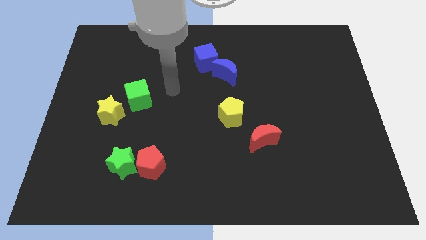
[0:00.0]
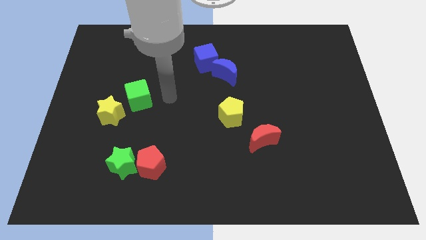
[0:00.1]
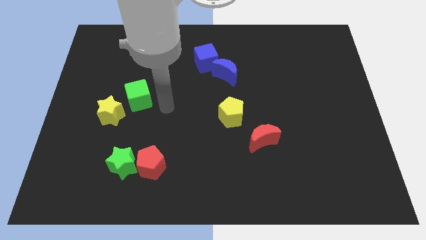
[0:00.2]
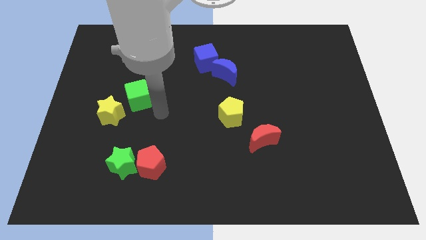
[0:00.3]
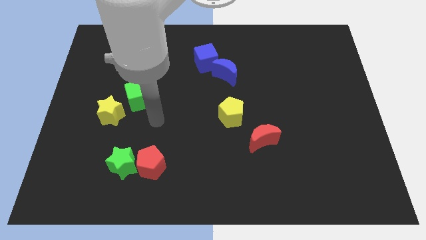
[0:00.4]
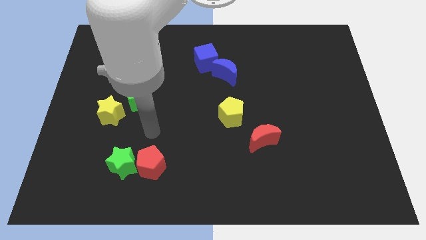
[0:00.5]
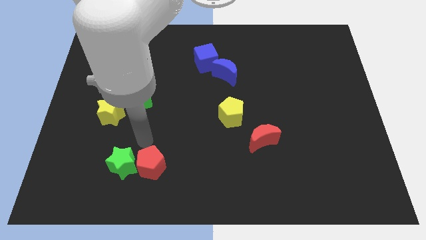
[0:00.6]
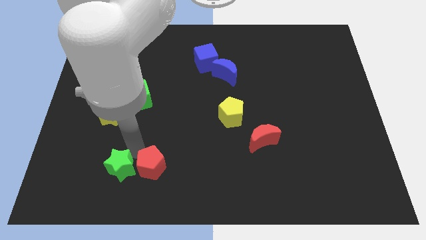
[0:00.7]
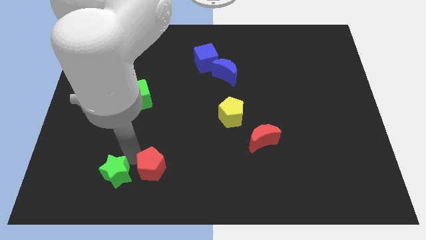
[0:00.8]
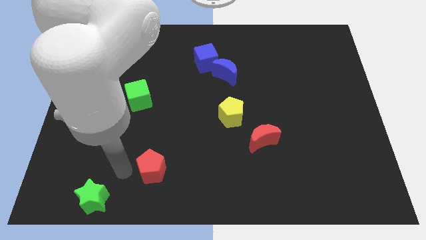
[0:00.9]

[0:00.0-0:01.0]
separate the red pentagon from the green star

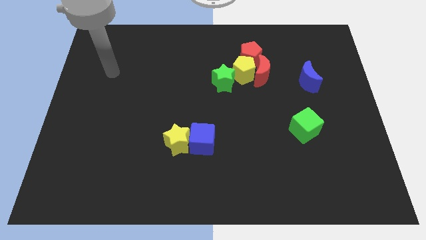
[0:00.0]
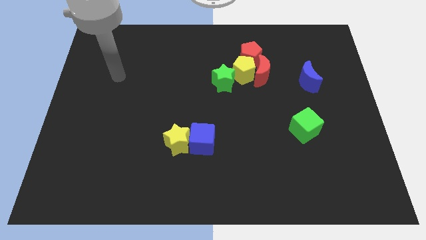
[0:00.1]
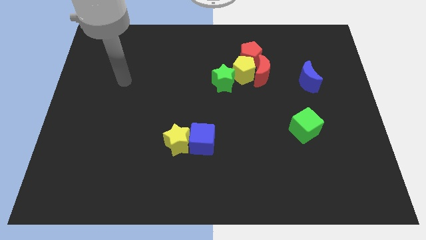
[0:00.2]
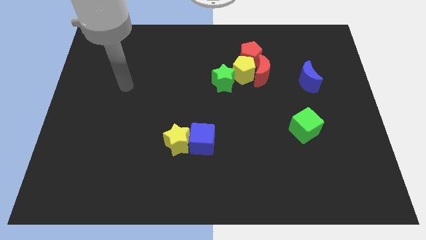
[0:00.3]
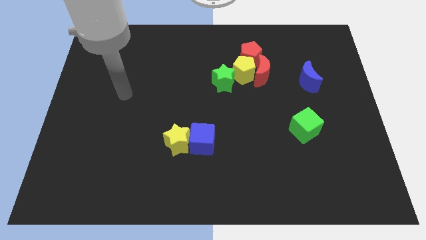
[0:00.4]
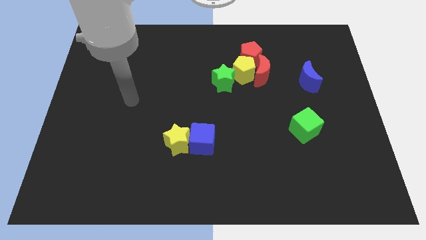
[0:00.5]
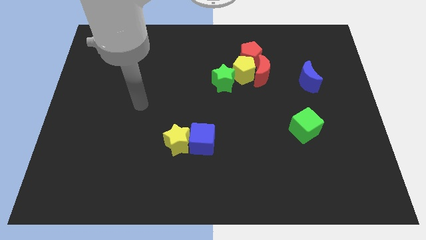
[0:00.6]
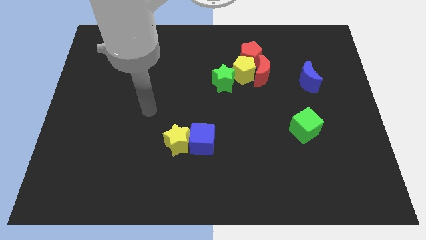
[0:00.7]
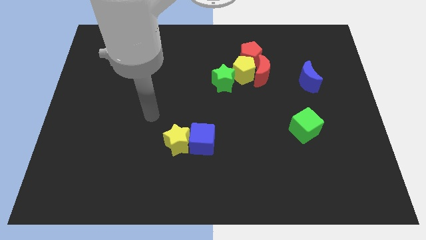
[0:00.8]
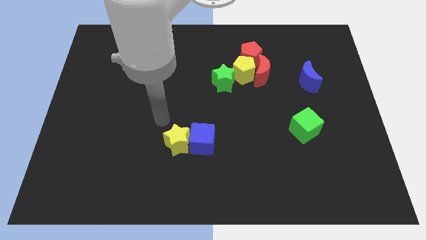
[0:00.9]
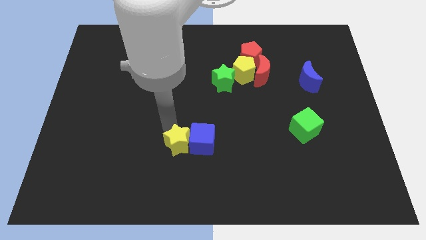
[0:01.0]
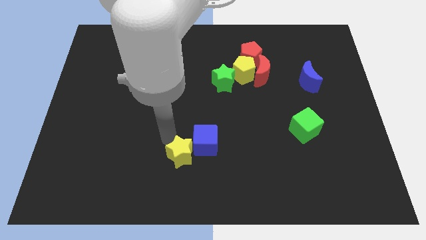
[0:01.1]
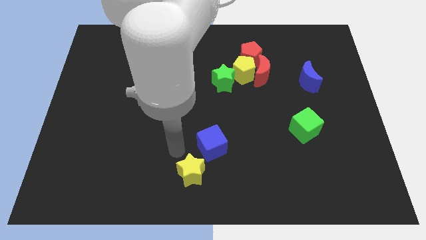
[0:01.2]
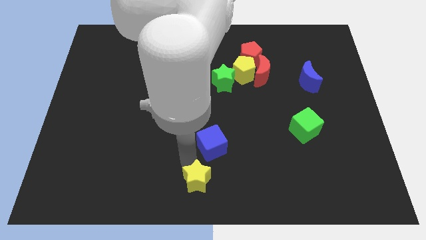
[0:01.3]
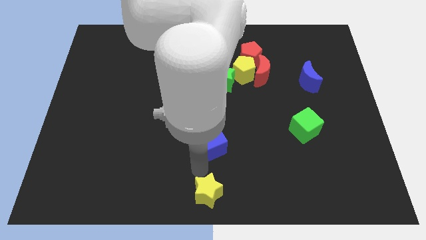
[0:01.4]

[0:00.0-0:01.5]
separate the blue cube from the yellow star

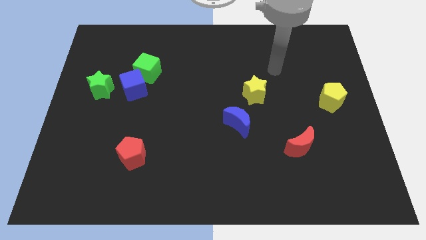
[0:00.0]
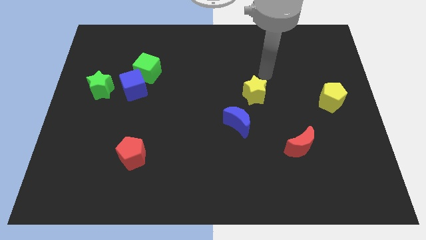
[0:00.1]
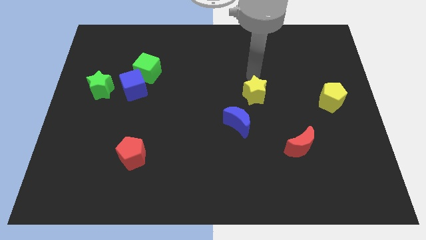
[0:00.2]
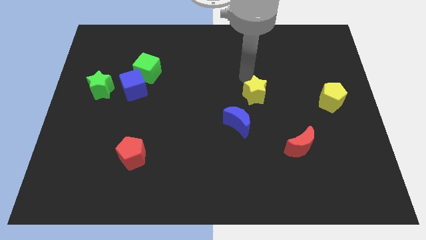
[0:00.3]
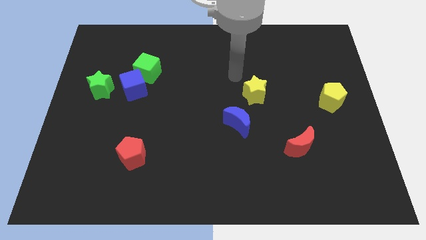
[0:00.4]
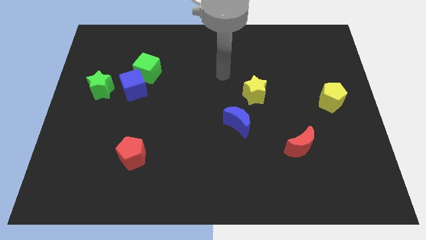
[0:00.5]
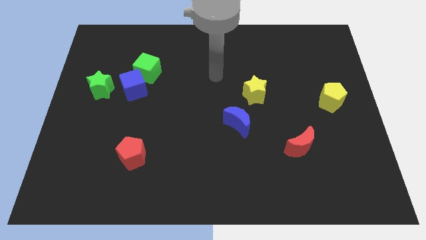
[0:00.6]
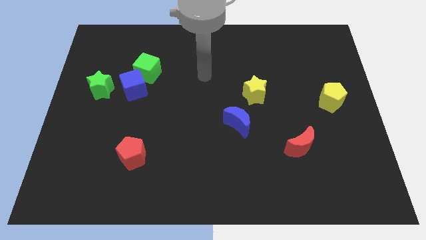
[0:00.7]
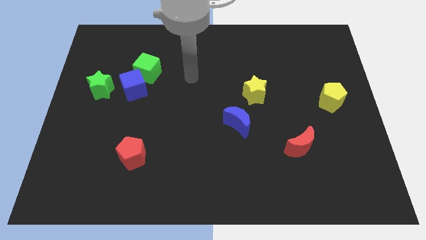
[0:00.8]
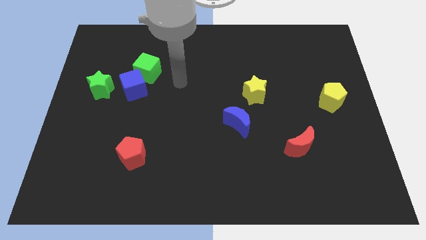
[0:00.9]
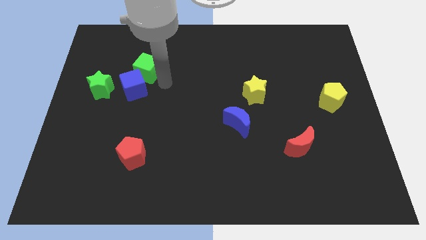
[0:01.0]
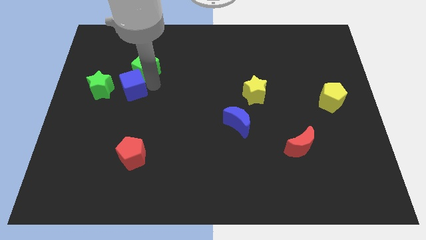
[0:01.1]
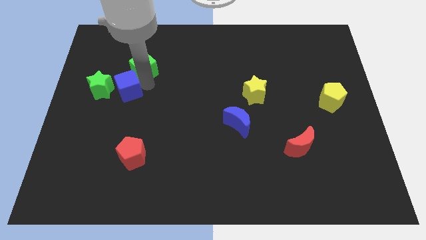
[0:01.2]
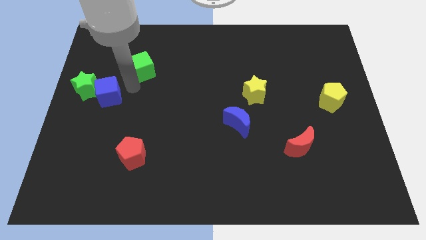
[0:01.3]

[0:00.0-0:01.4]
pull the green cube apart from the blue cube

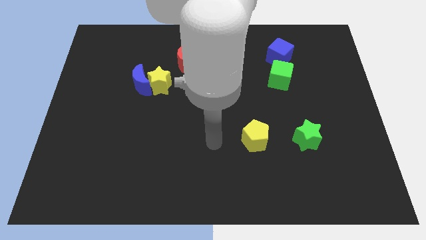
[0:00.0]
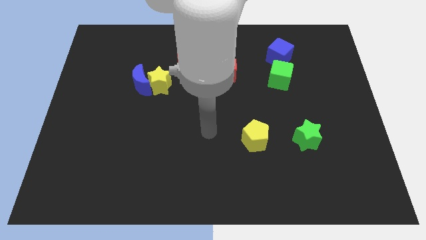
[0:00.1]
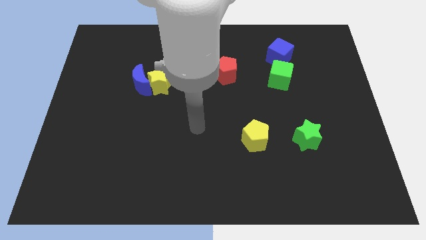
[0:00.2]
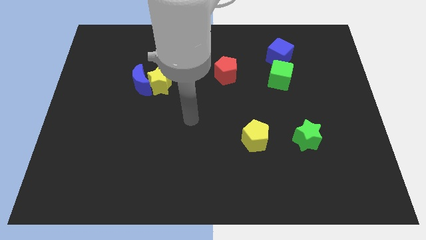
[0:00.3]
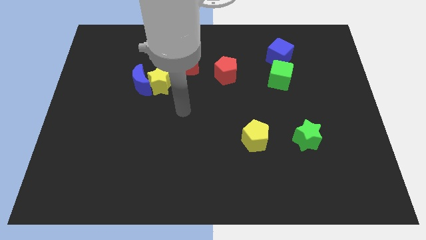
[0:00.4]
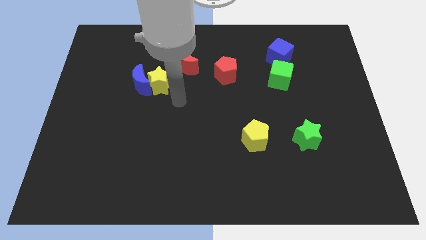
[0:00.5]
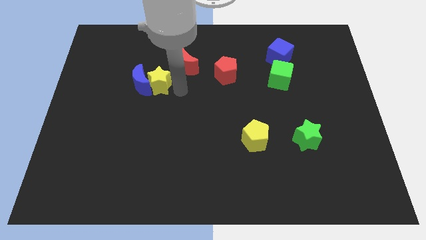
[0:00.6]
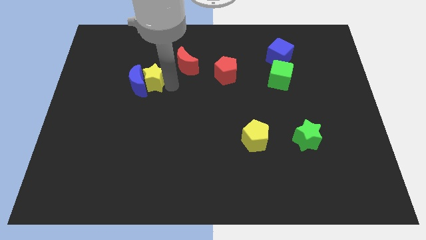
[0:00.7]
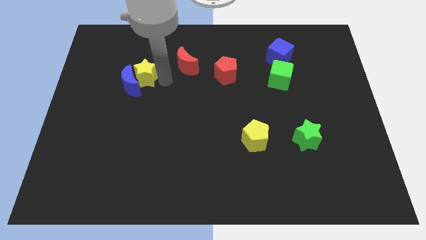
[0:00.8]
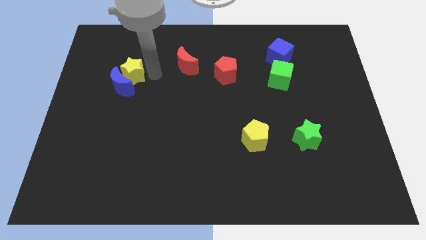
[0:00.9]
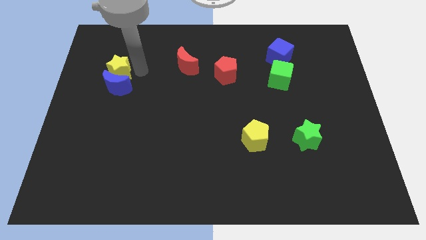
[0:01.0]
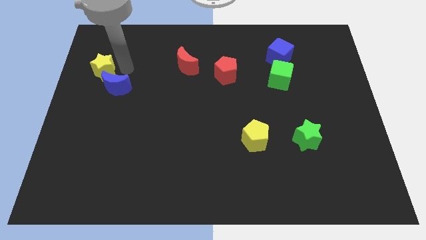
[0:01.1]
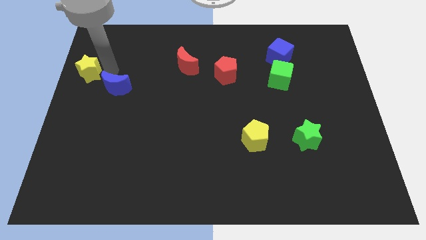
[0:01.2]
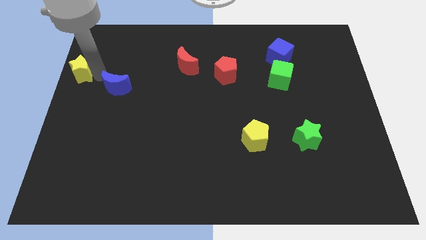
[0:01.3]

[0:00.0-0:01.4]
separate the blue moon from the yellow star

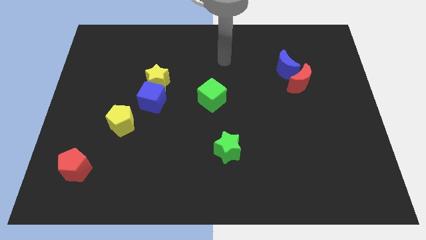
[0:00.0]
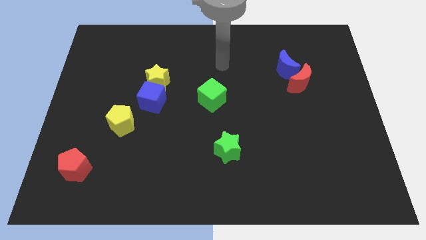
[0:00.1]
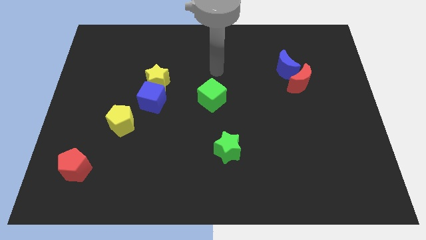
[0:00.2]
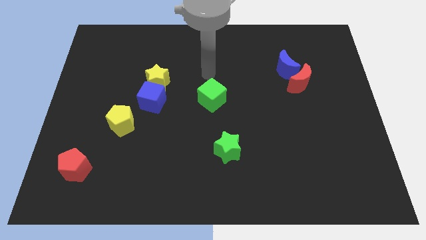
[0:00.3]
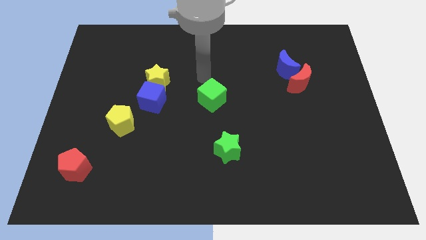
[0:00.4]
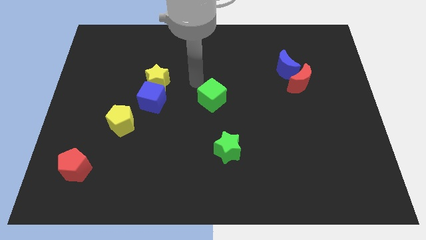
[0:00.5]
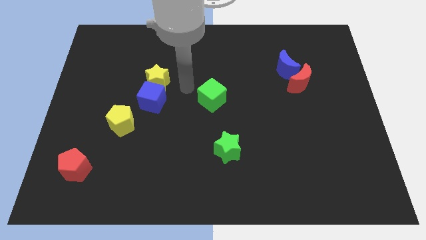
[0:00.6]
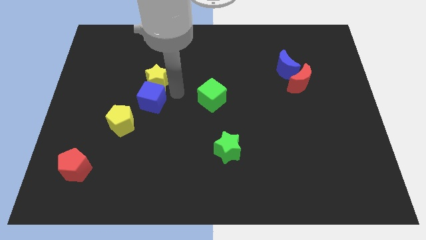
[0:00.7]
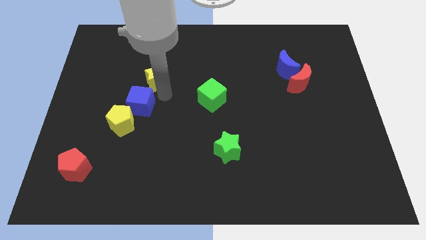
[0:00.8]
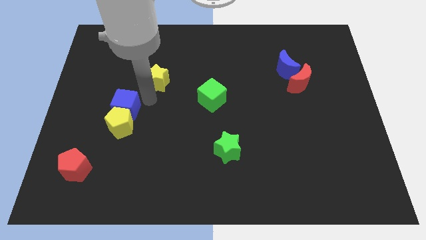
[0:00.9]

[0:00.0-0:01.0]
move the yellow star away from the blue cube

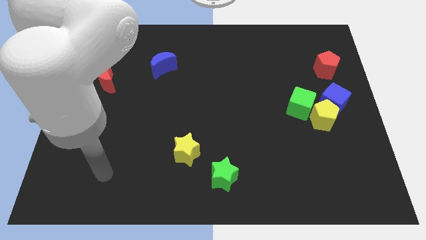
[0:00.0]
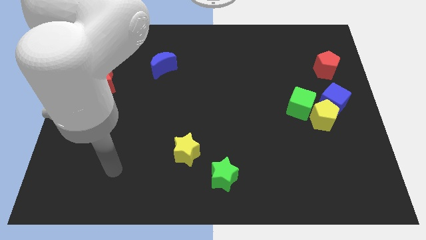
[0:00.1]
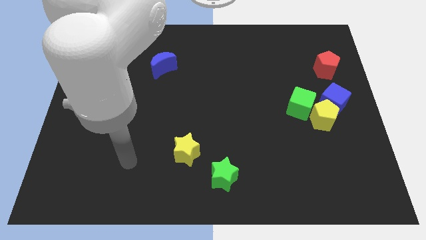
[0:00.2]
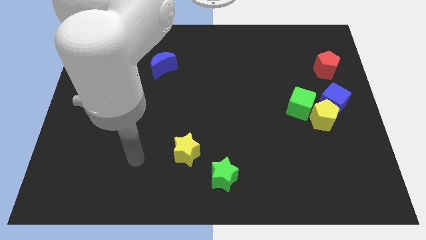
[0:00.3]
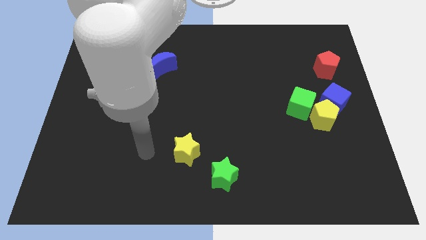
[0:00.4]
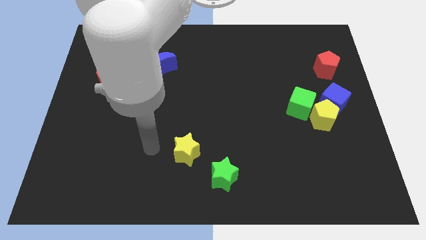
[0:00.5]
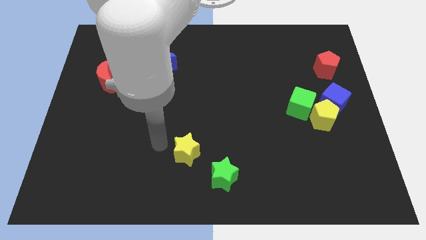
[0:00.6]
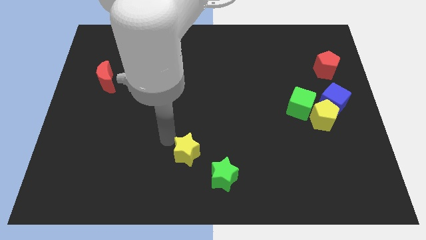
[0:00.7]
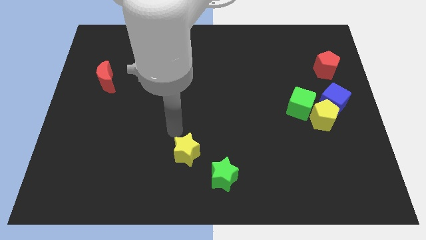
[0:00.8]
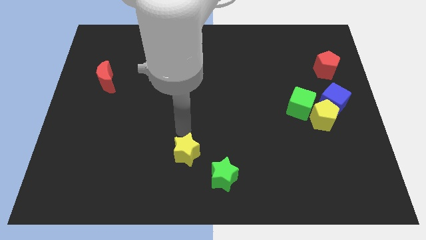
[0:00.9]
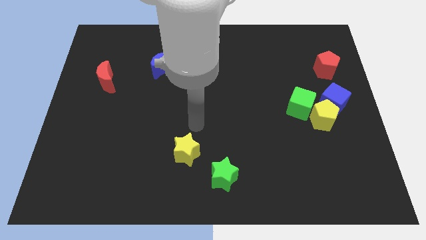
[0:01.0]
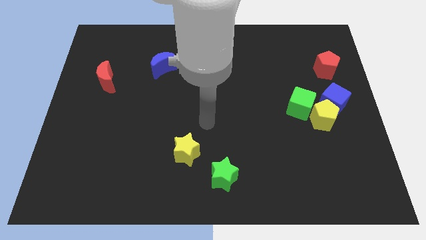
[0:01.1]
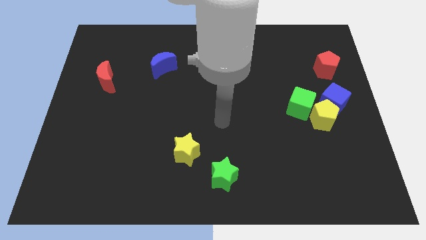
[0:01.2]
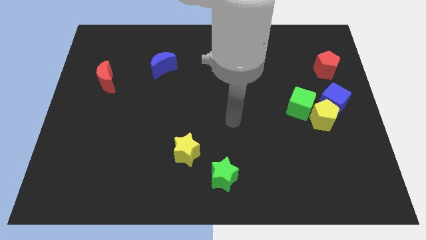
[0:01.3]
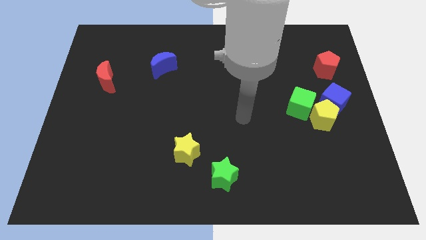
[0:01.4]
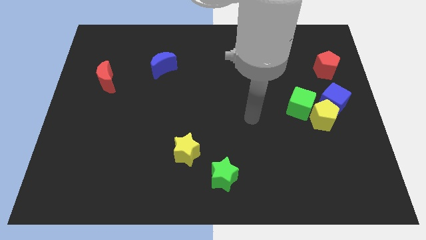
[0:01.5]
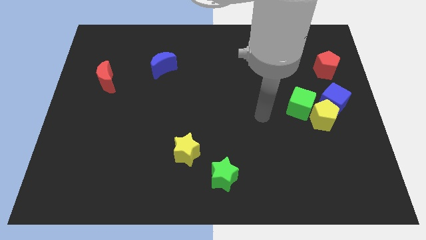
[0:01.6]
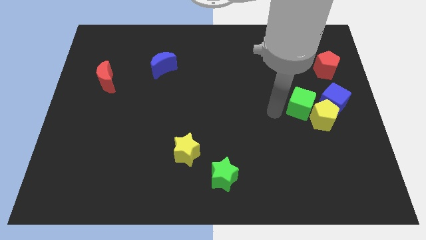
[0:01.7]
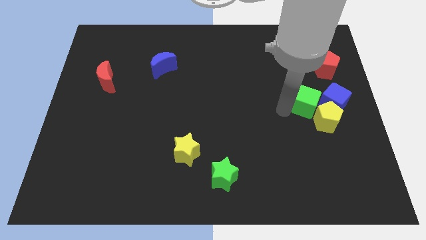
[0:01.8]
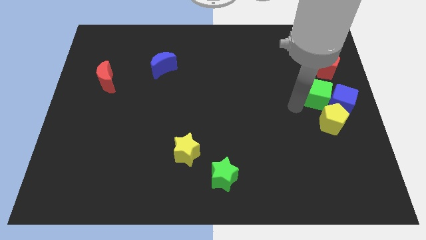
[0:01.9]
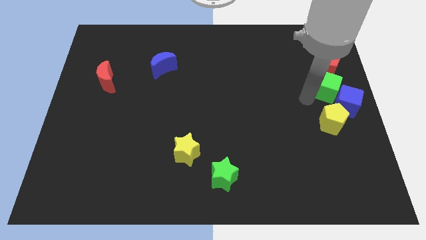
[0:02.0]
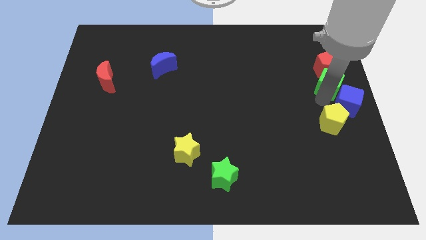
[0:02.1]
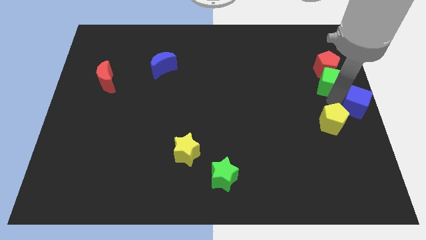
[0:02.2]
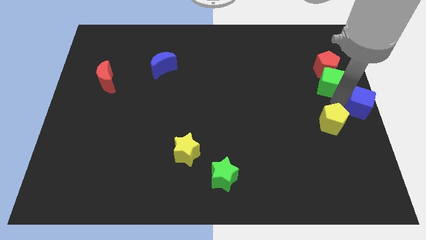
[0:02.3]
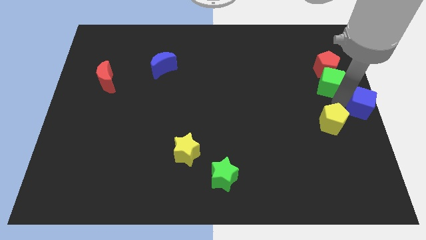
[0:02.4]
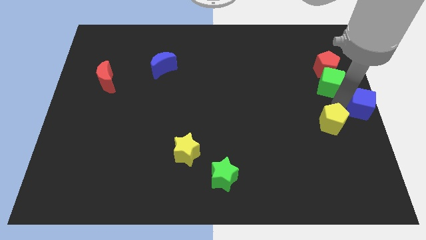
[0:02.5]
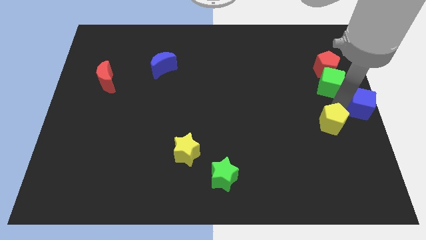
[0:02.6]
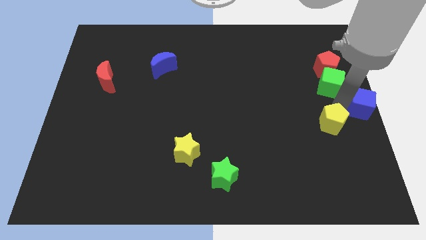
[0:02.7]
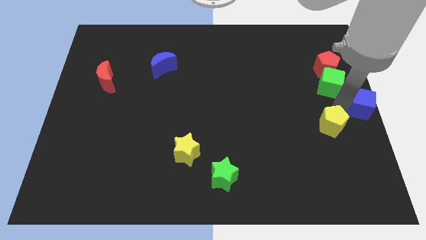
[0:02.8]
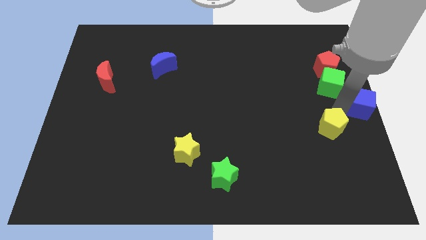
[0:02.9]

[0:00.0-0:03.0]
move the yellow pentagon away from the blue cube and green cube
